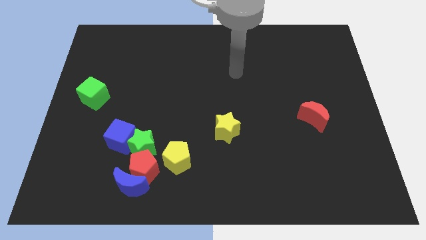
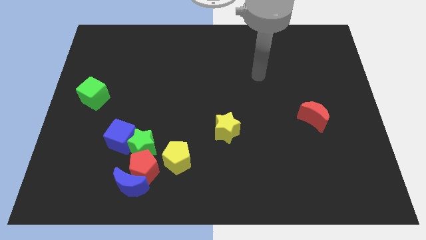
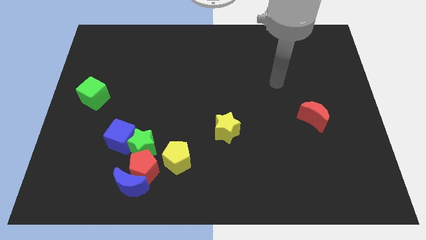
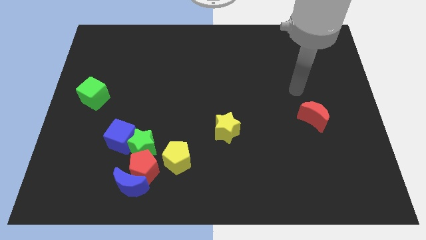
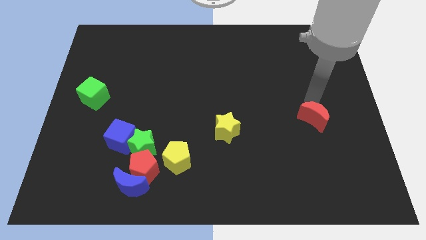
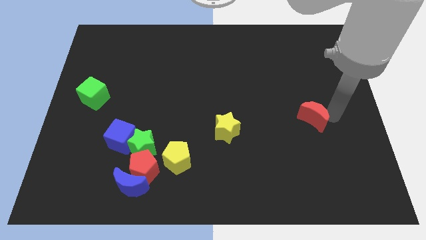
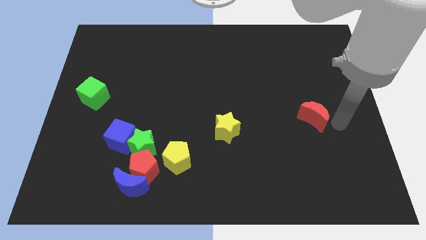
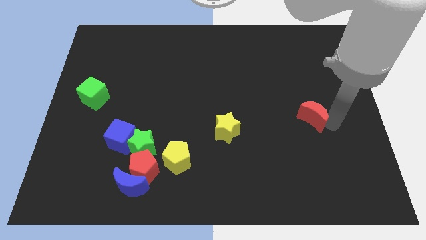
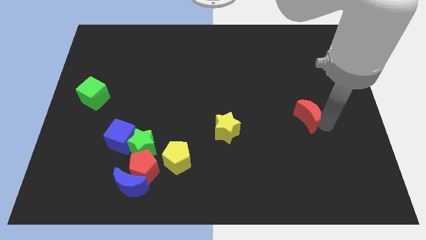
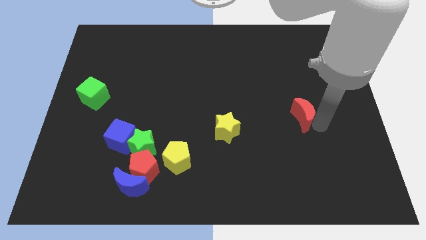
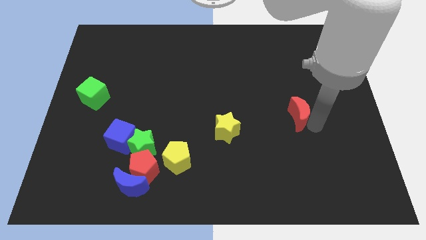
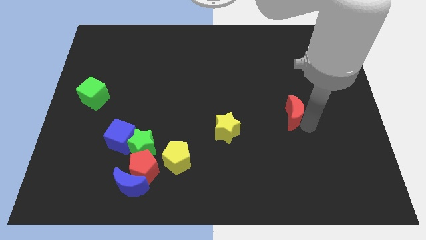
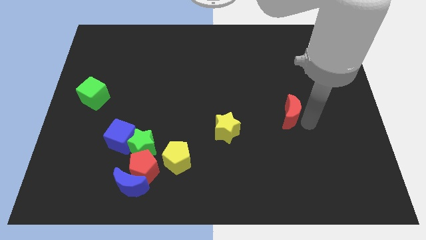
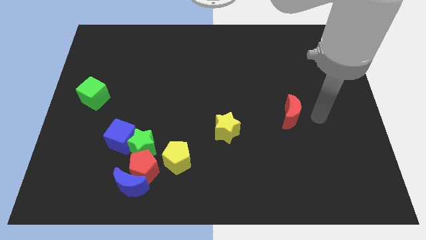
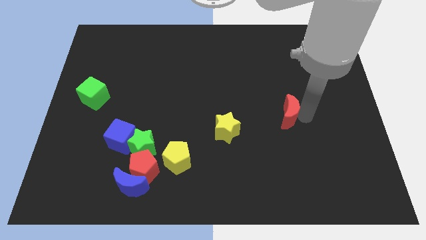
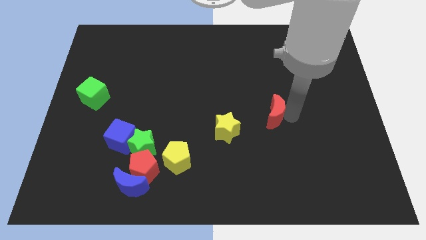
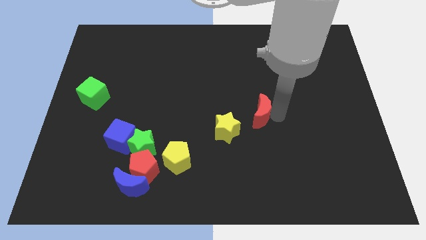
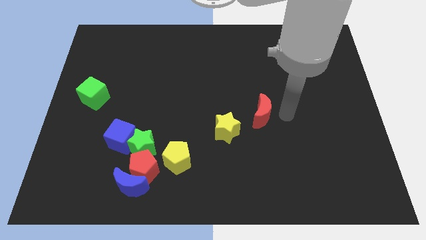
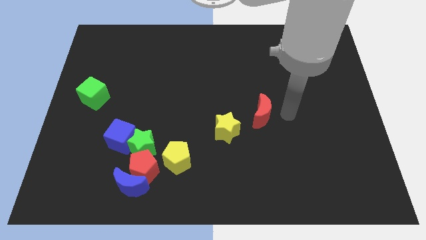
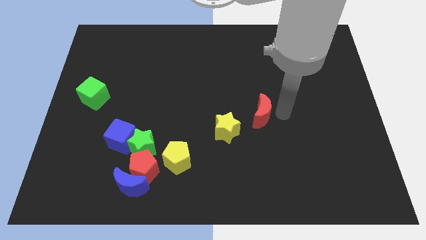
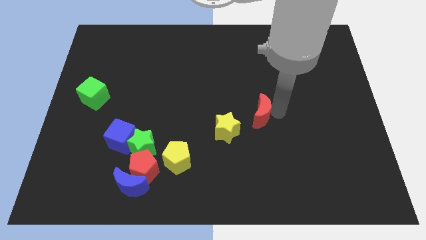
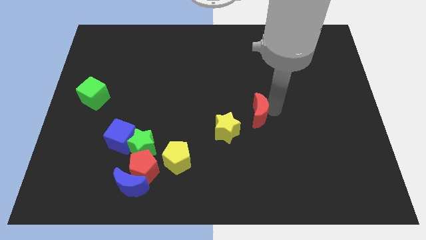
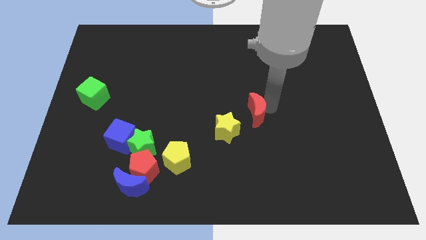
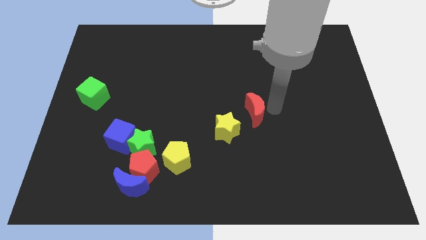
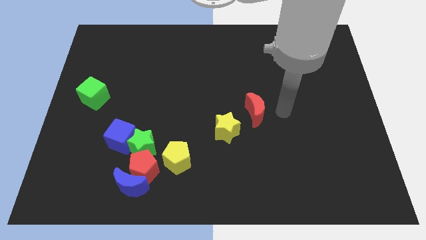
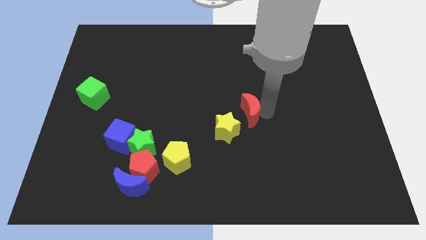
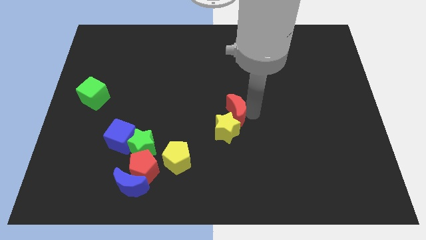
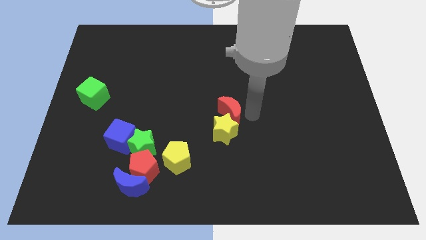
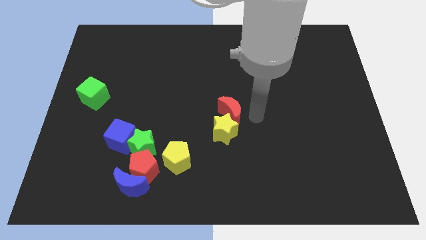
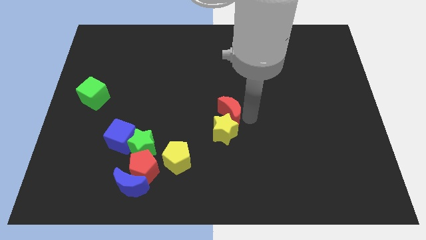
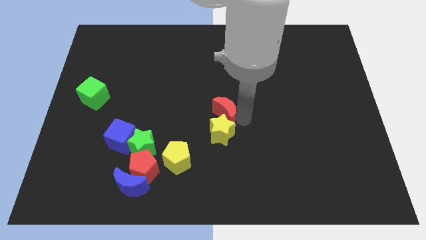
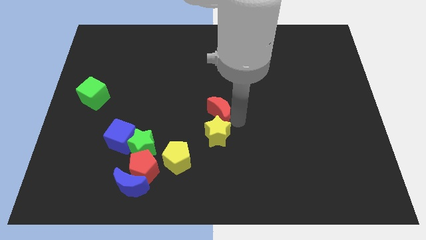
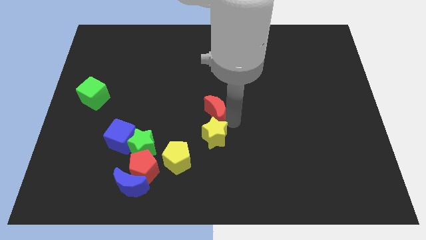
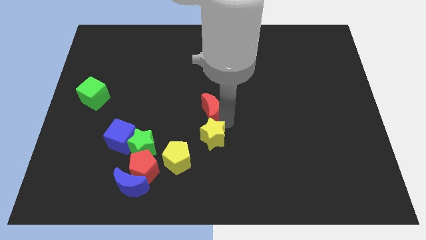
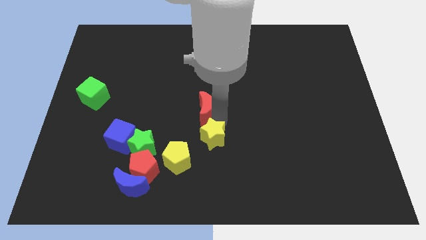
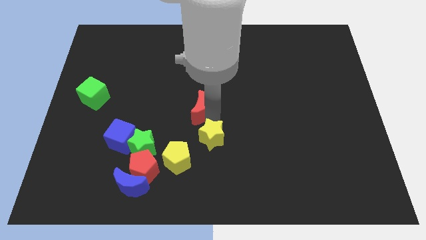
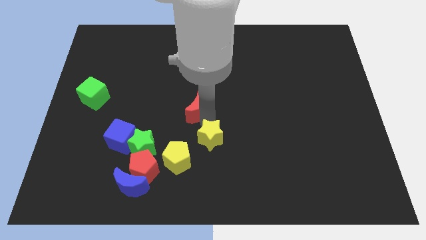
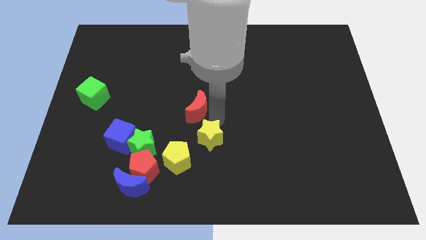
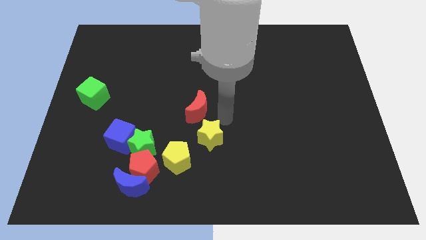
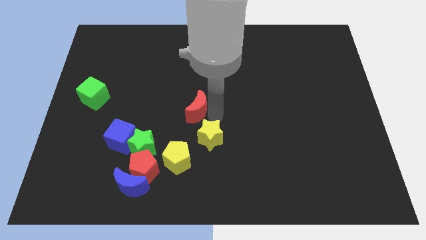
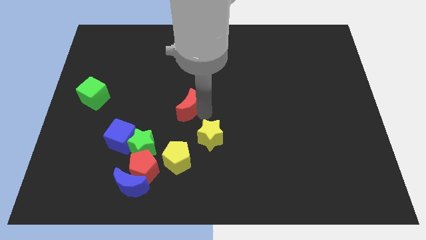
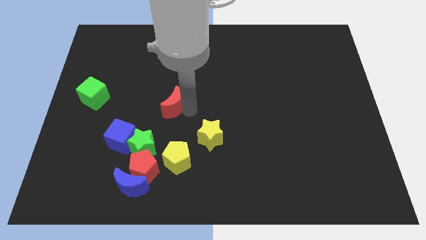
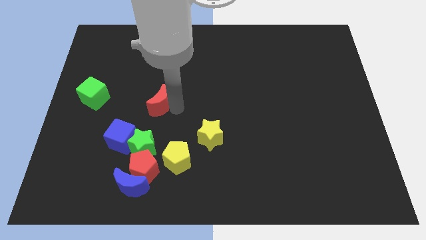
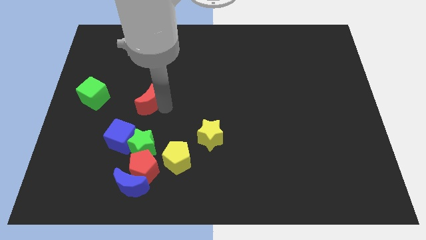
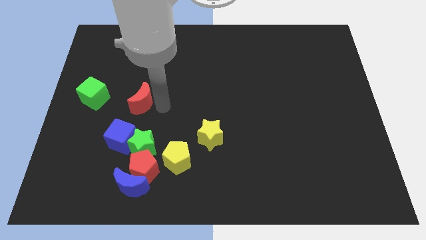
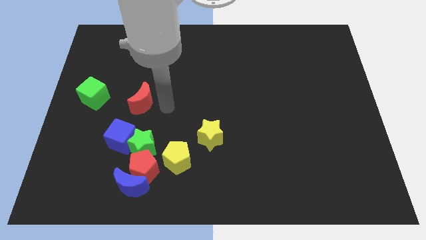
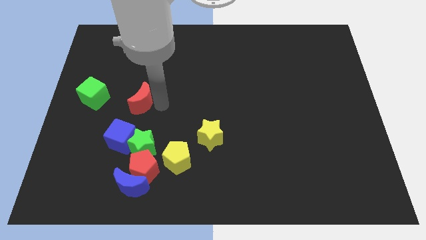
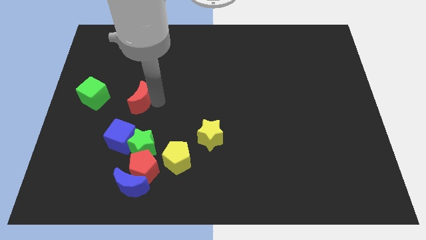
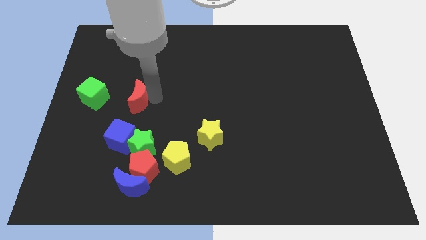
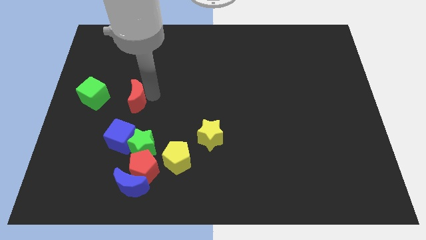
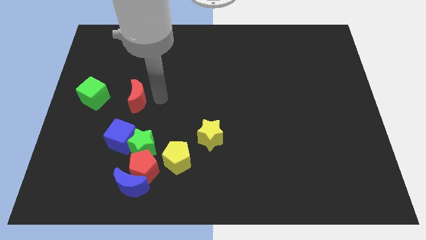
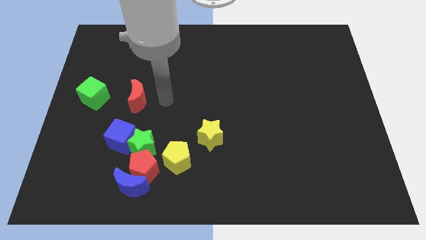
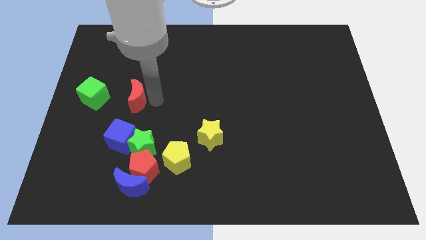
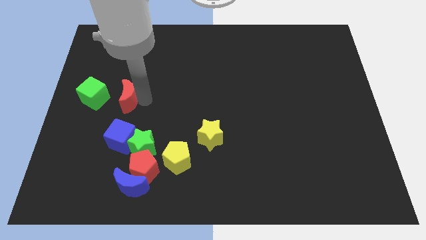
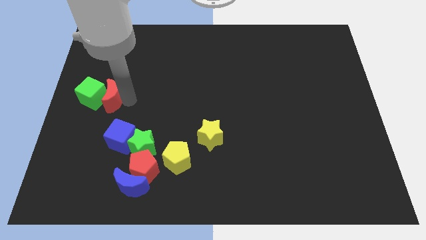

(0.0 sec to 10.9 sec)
push the red moon to the green cube

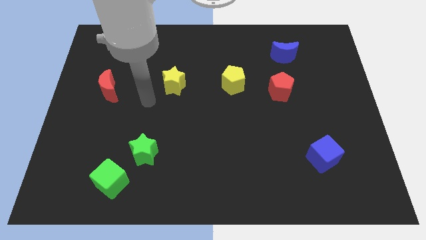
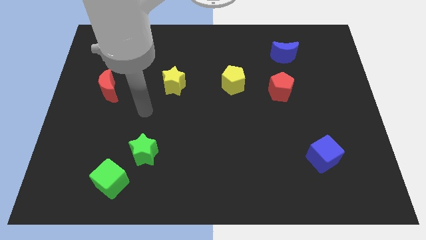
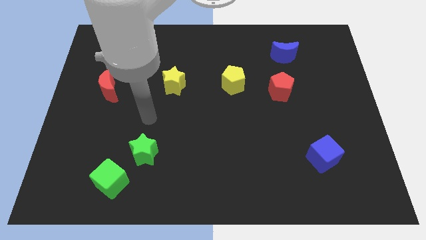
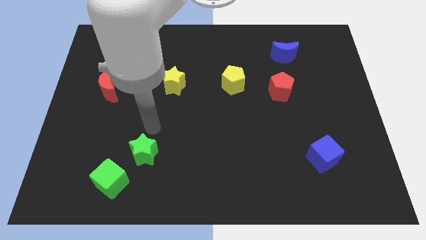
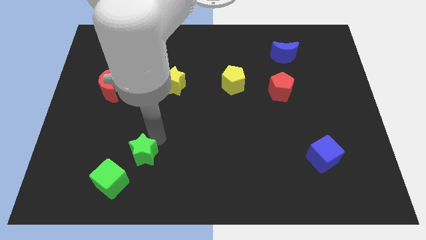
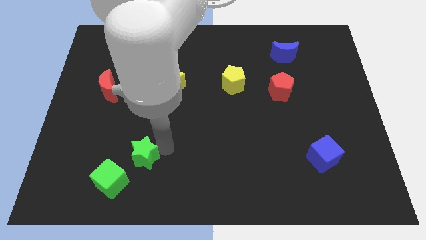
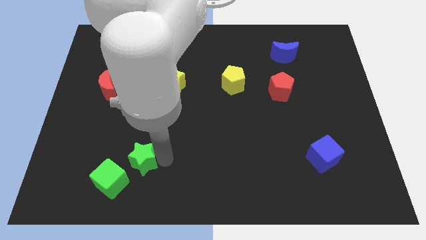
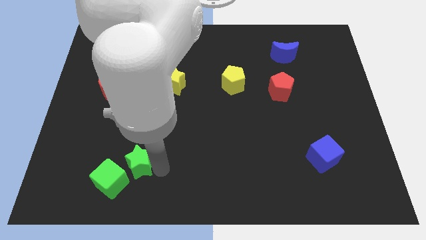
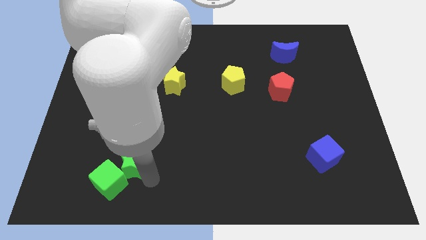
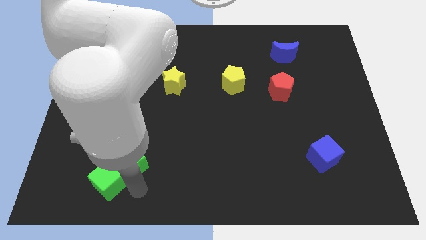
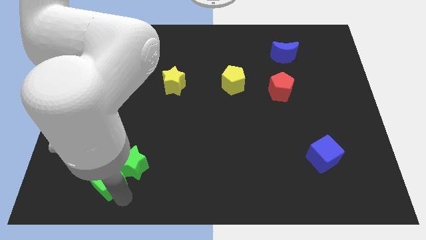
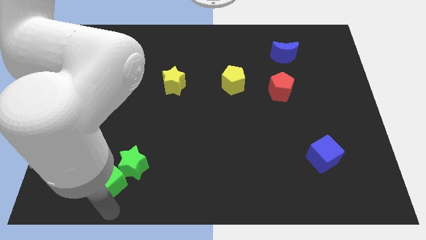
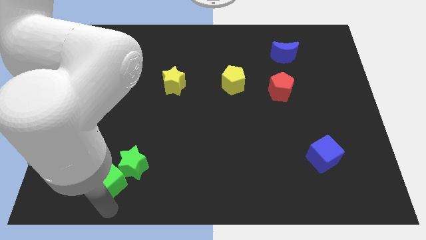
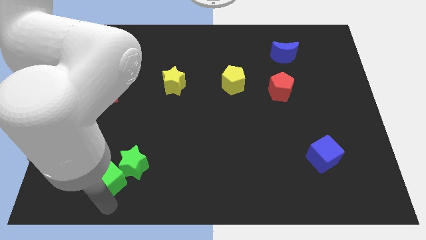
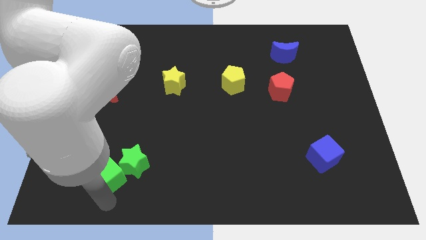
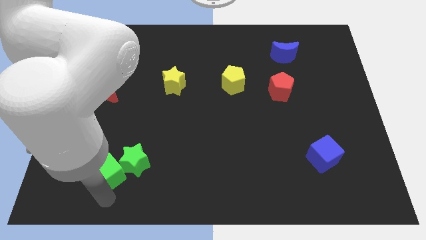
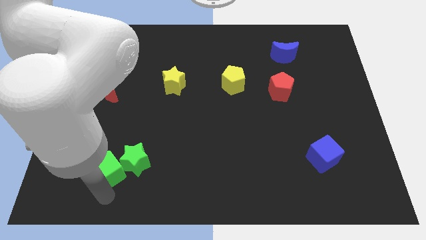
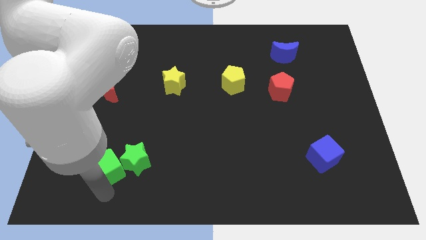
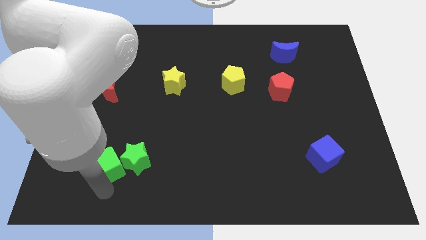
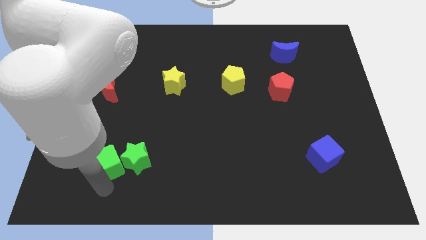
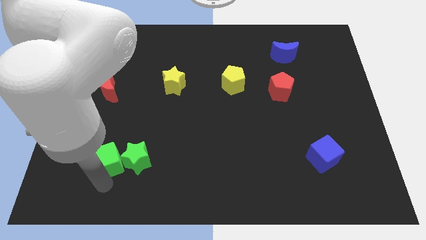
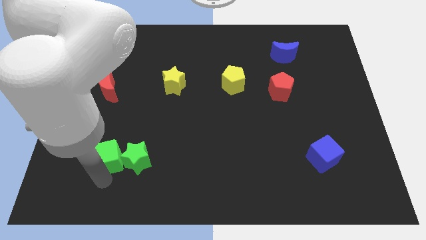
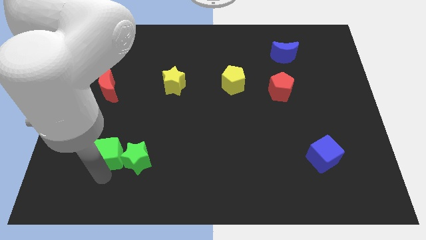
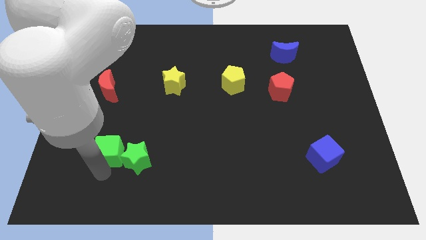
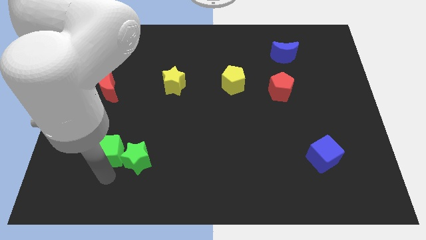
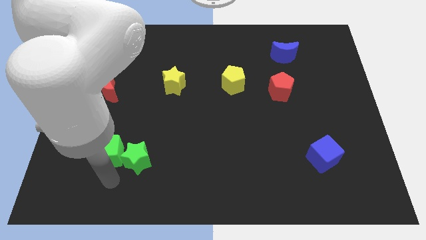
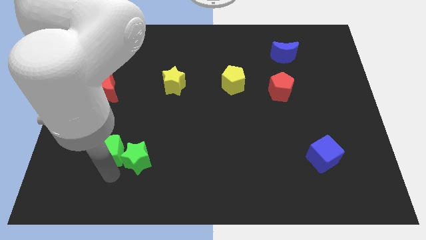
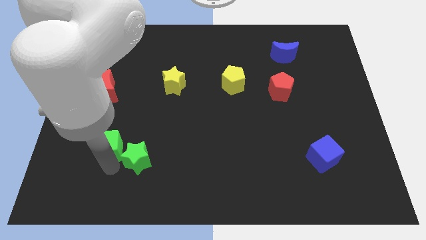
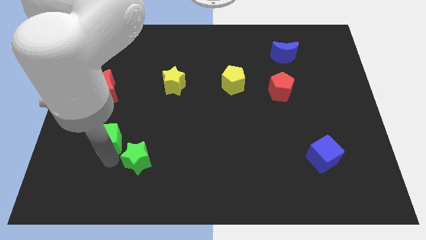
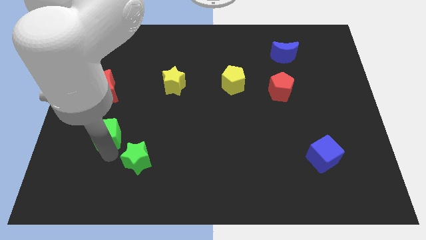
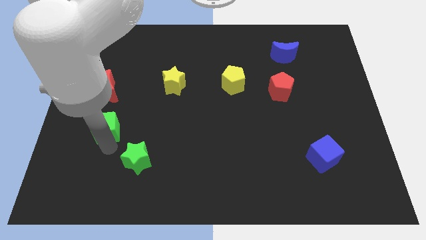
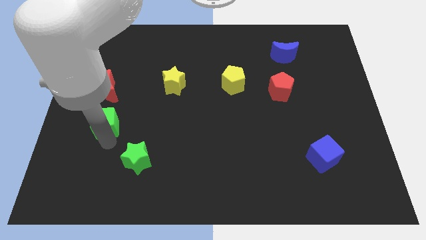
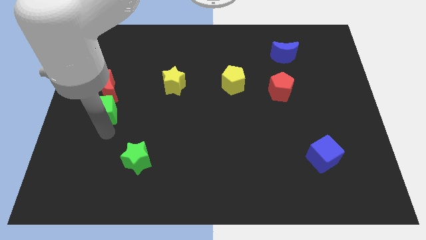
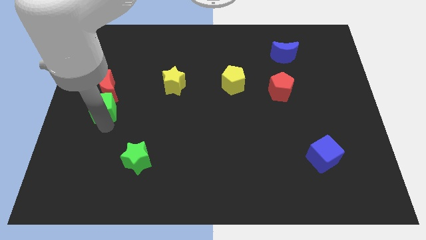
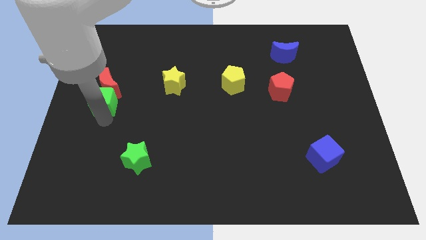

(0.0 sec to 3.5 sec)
put the green cube to the red moon
